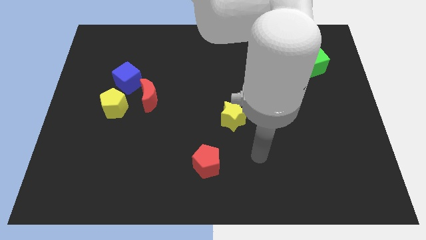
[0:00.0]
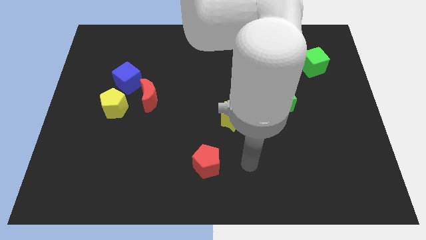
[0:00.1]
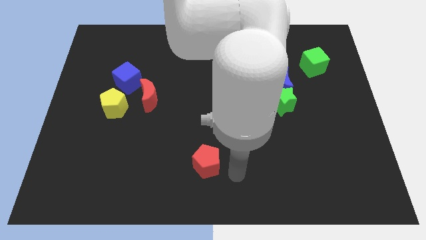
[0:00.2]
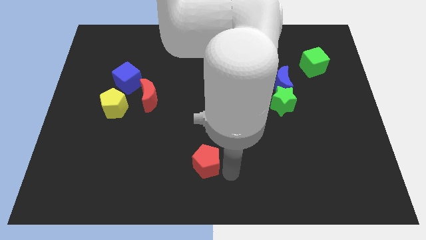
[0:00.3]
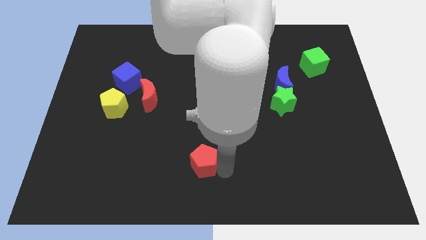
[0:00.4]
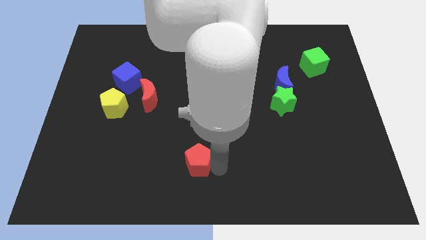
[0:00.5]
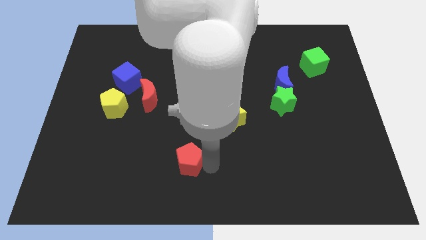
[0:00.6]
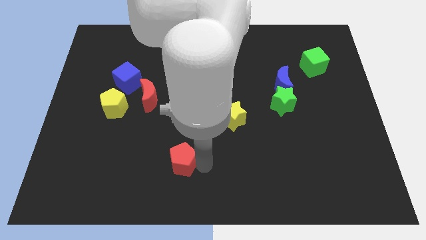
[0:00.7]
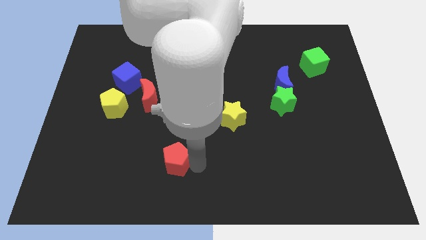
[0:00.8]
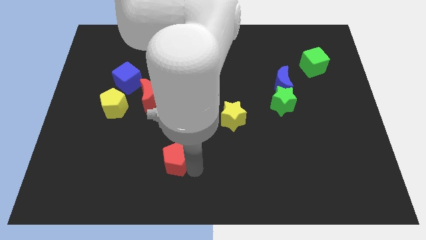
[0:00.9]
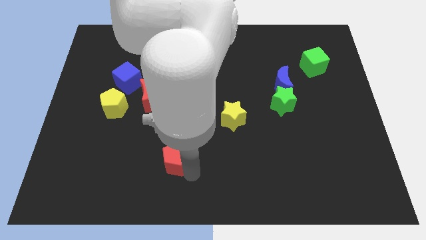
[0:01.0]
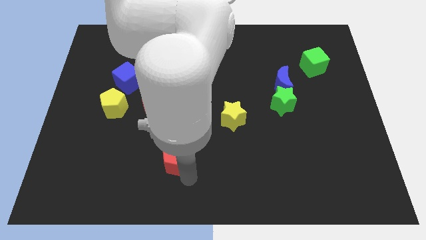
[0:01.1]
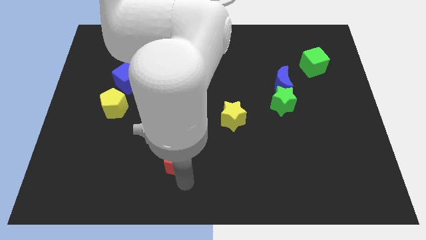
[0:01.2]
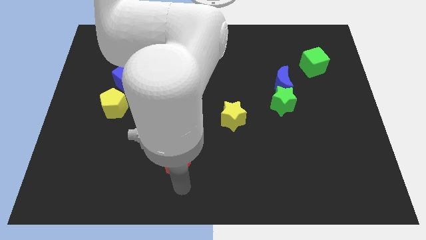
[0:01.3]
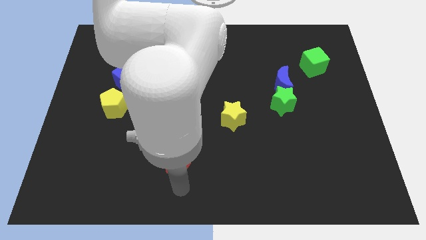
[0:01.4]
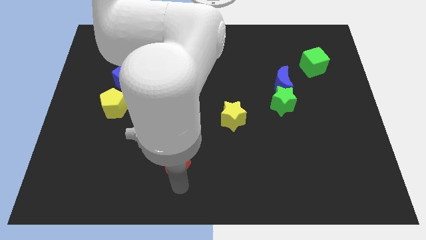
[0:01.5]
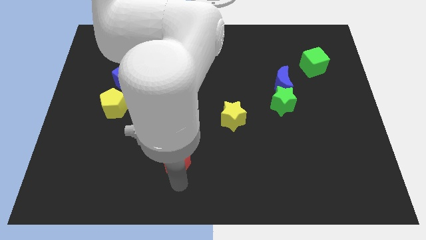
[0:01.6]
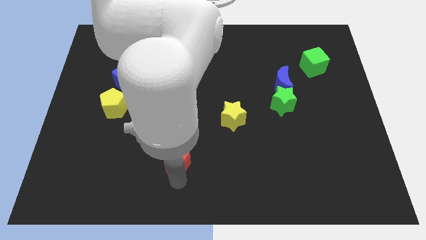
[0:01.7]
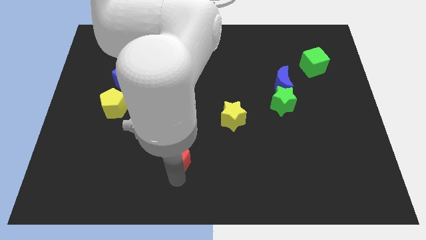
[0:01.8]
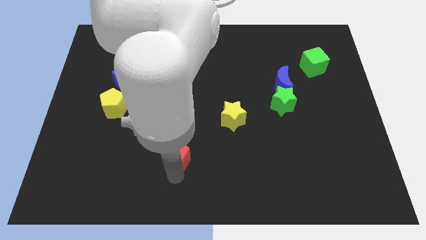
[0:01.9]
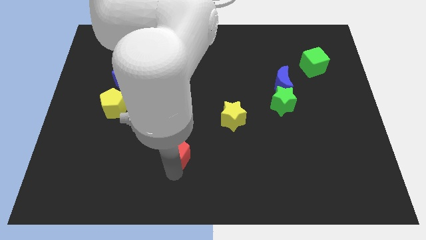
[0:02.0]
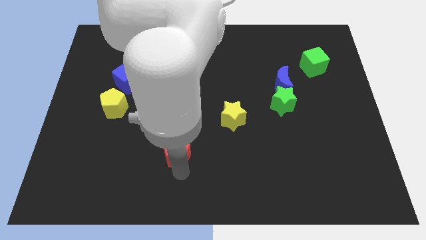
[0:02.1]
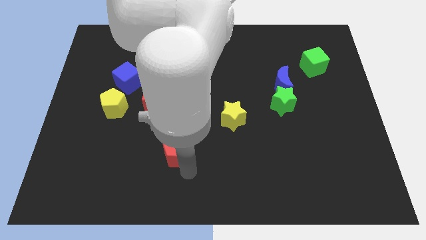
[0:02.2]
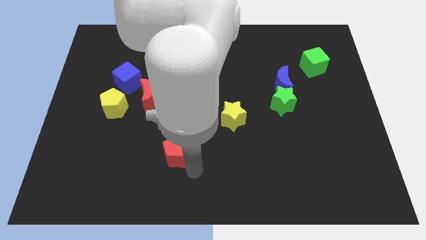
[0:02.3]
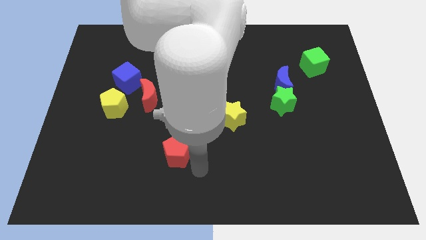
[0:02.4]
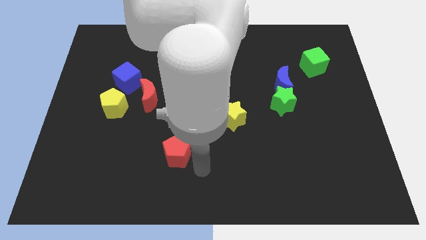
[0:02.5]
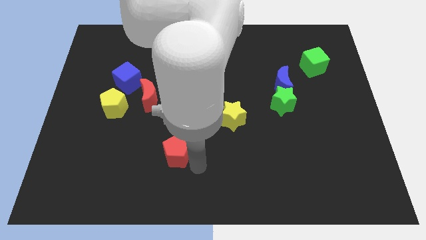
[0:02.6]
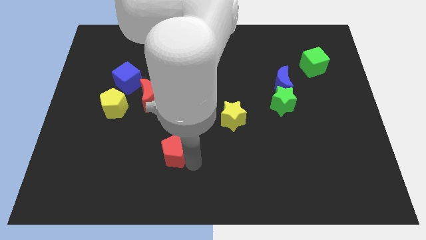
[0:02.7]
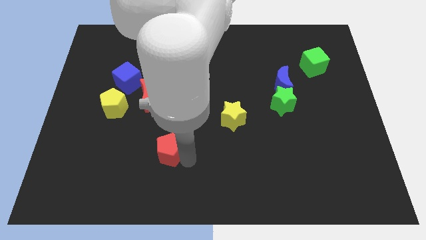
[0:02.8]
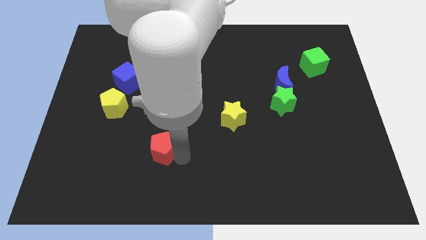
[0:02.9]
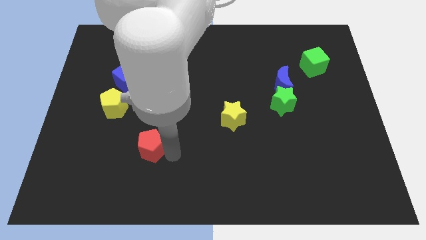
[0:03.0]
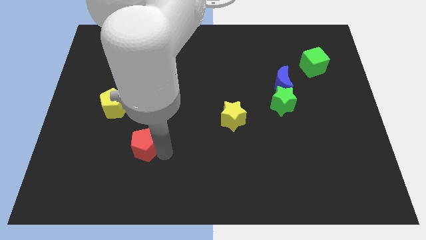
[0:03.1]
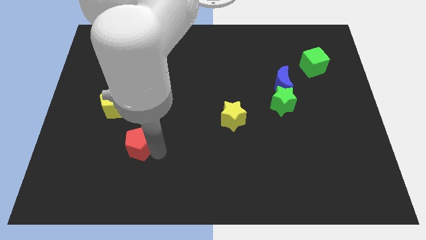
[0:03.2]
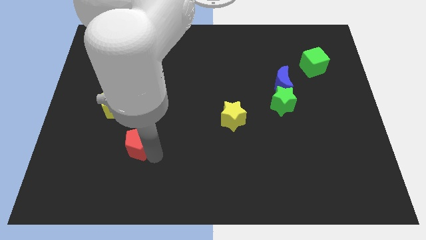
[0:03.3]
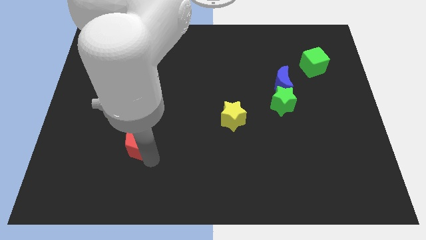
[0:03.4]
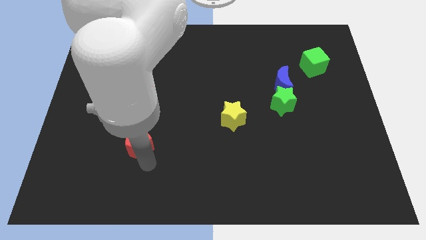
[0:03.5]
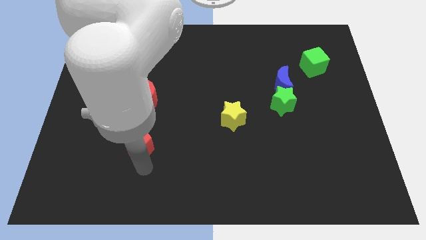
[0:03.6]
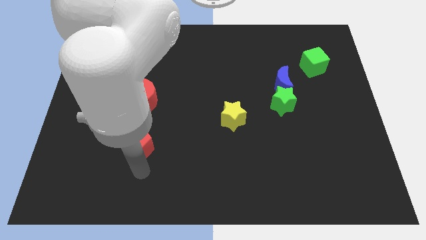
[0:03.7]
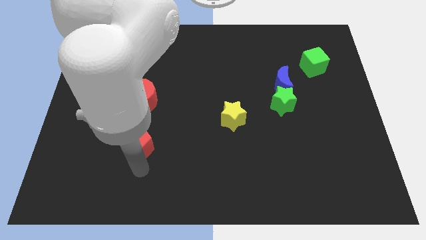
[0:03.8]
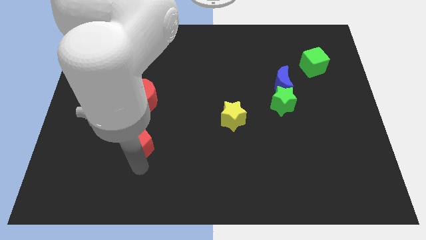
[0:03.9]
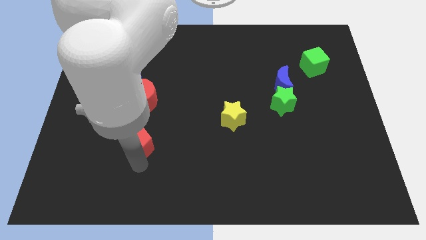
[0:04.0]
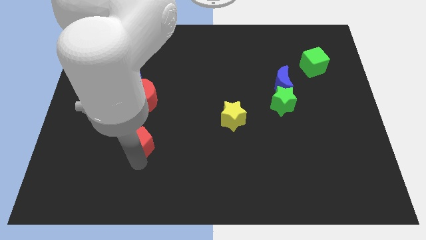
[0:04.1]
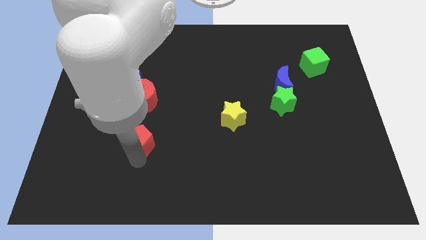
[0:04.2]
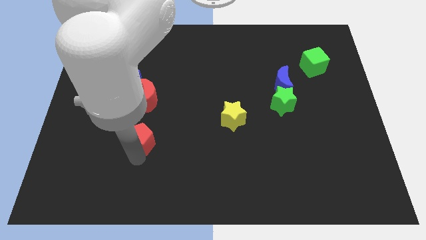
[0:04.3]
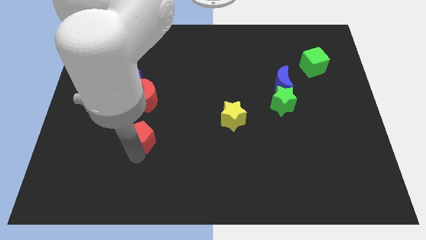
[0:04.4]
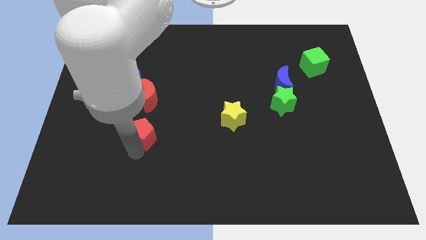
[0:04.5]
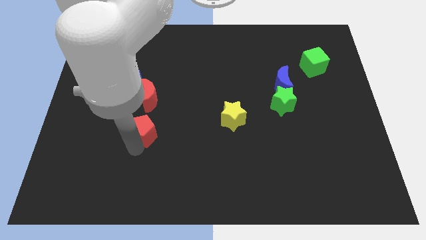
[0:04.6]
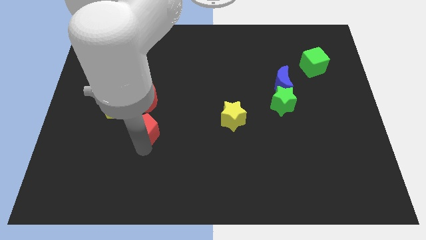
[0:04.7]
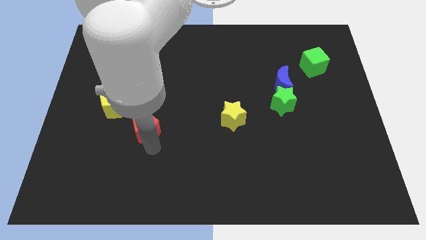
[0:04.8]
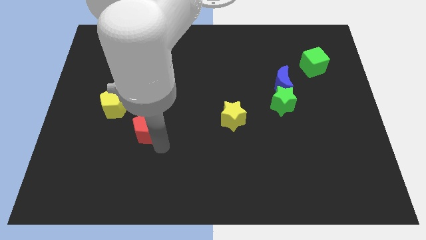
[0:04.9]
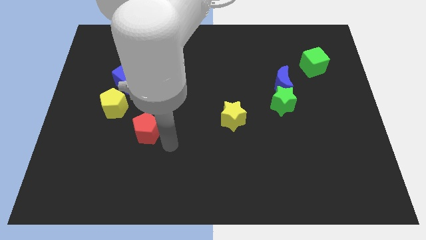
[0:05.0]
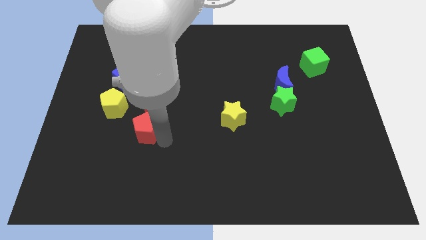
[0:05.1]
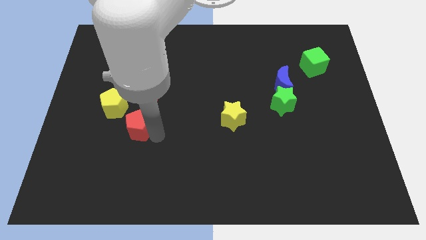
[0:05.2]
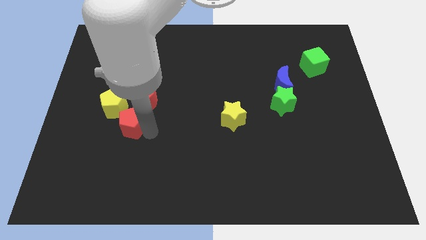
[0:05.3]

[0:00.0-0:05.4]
push the red pentagon below the blue cube

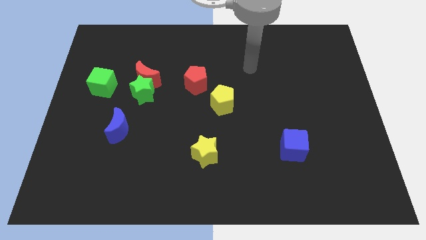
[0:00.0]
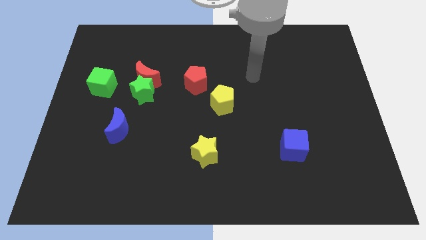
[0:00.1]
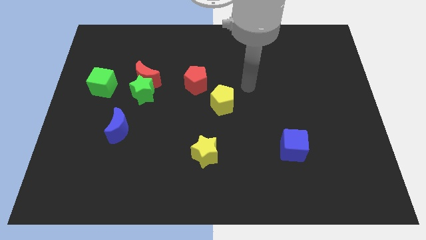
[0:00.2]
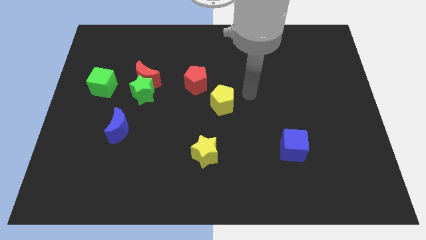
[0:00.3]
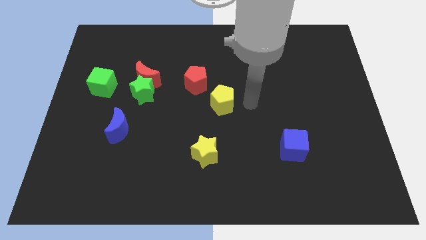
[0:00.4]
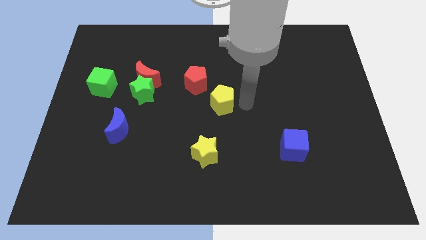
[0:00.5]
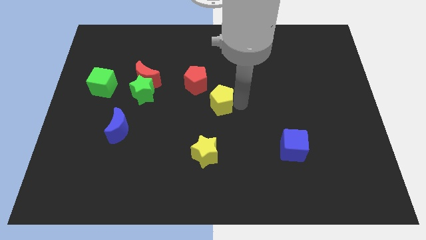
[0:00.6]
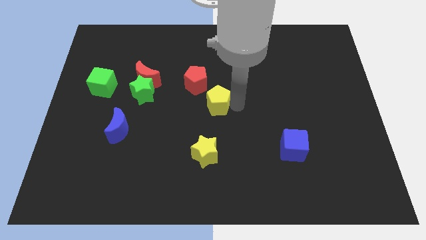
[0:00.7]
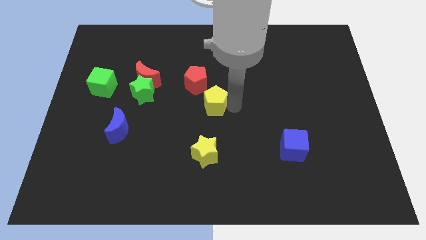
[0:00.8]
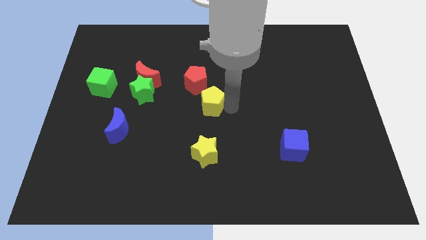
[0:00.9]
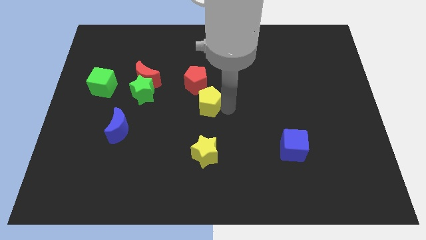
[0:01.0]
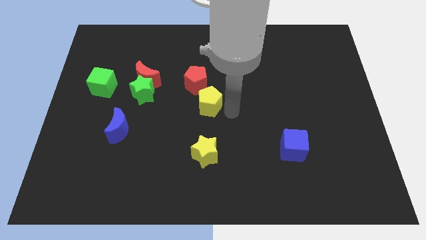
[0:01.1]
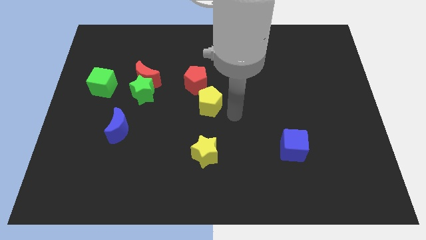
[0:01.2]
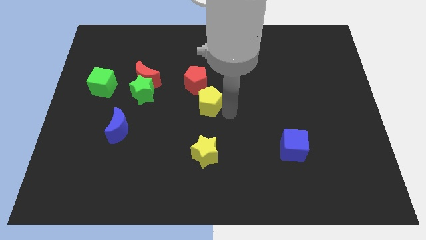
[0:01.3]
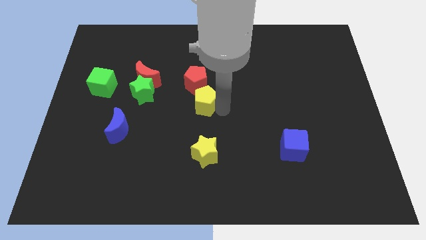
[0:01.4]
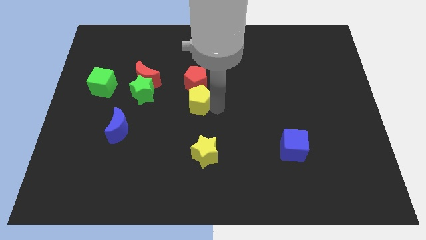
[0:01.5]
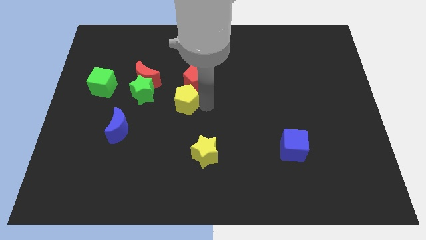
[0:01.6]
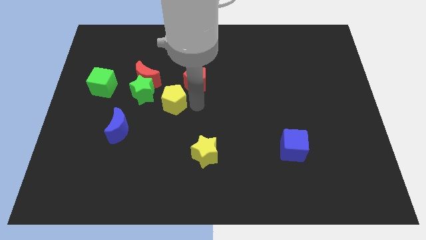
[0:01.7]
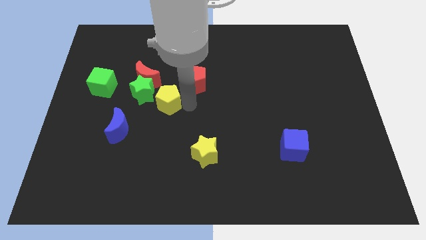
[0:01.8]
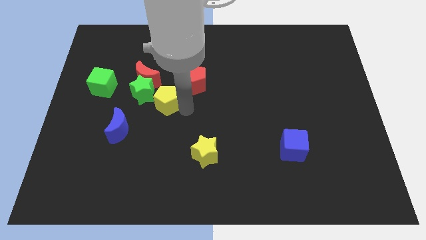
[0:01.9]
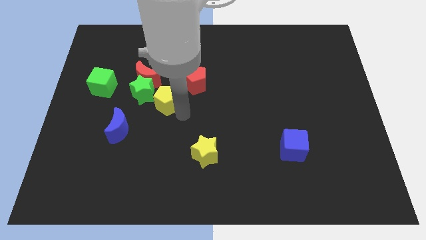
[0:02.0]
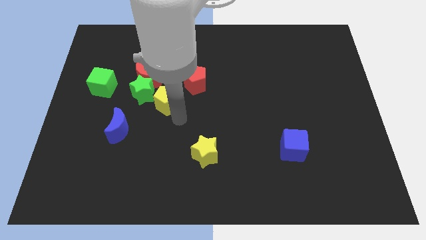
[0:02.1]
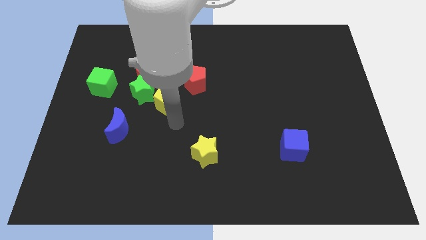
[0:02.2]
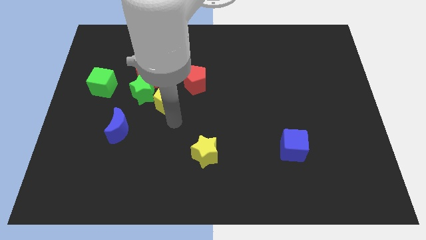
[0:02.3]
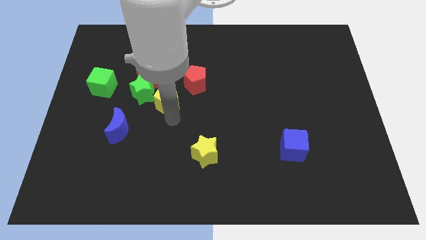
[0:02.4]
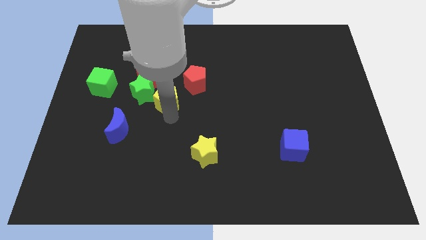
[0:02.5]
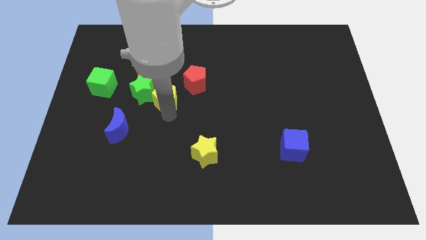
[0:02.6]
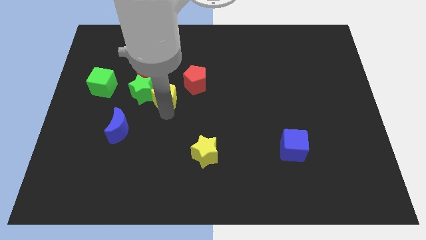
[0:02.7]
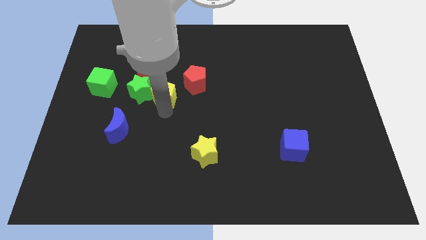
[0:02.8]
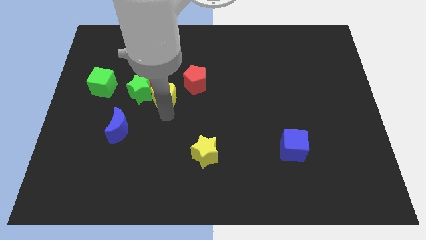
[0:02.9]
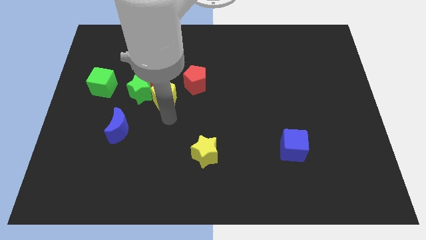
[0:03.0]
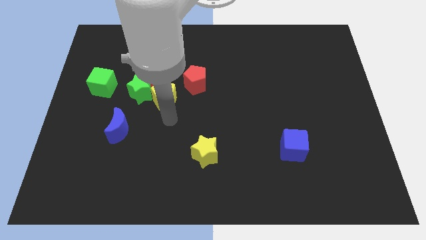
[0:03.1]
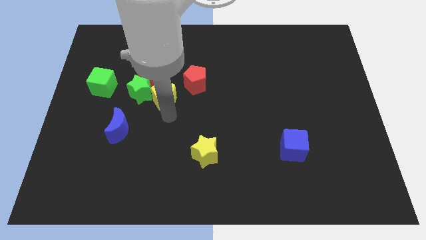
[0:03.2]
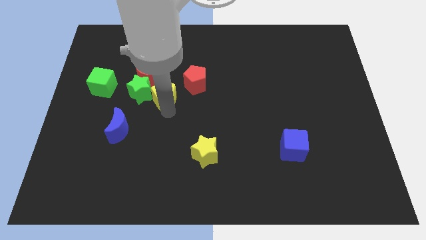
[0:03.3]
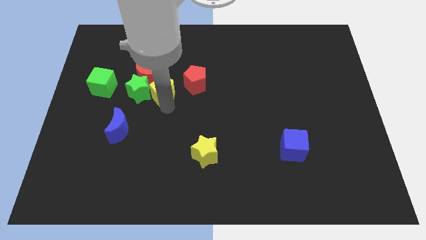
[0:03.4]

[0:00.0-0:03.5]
put the yellow pentagon right of the green cube
